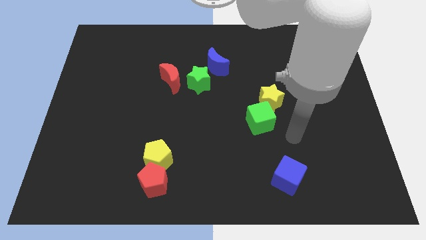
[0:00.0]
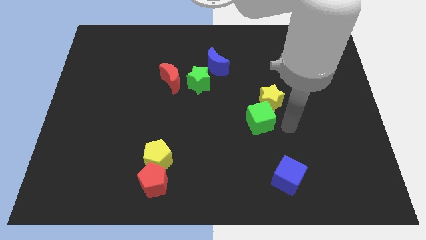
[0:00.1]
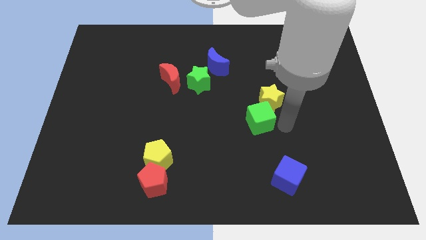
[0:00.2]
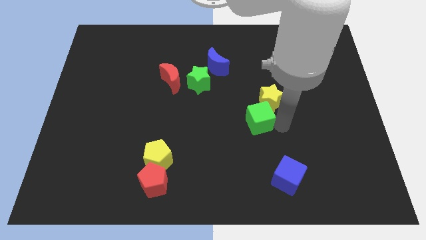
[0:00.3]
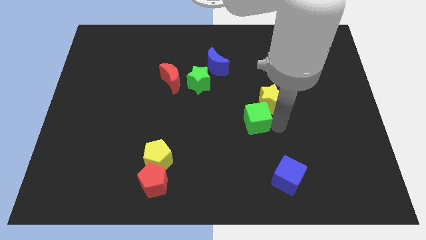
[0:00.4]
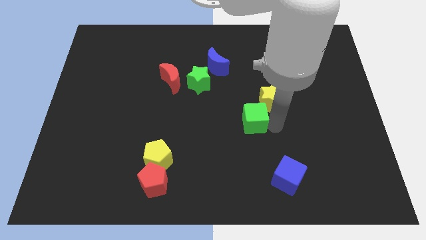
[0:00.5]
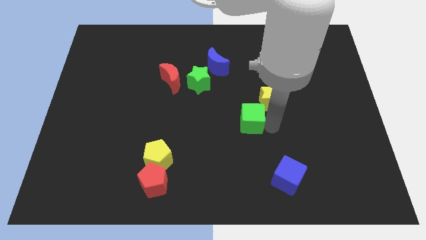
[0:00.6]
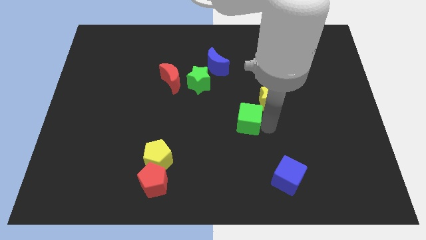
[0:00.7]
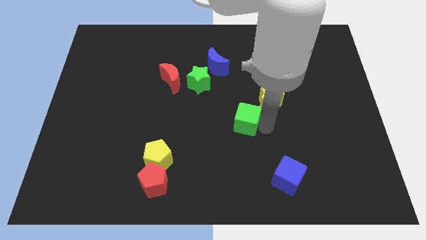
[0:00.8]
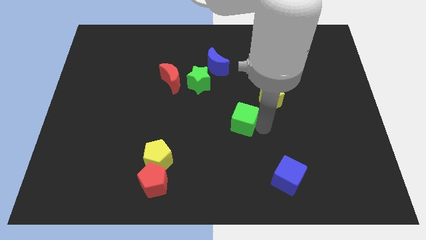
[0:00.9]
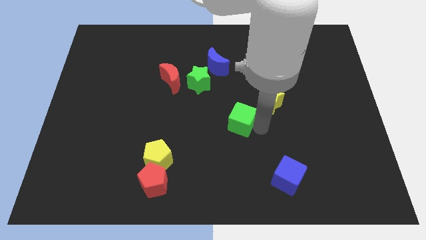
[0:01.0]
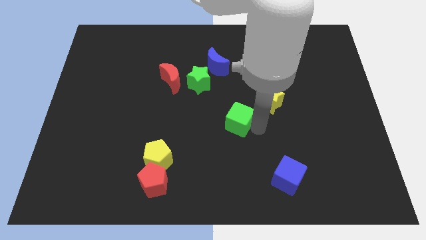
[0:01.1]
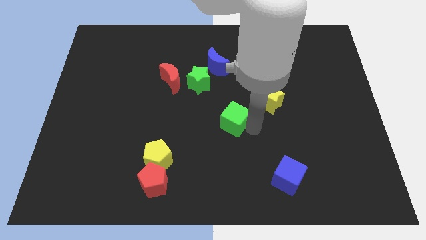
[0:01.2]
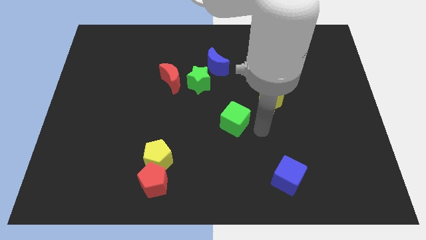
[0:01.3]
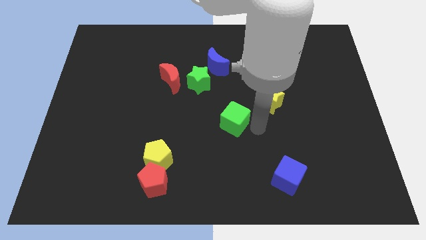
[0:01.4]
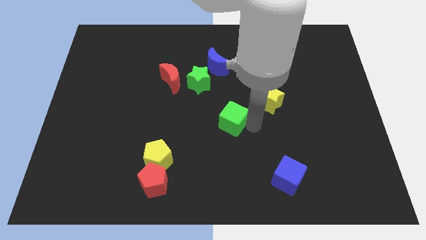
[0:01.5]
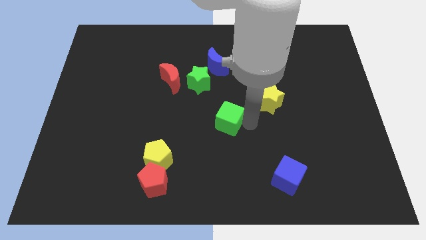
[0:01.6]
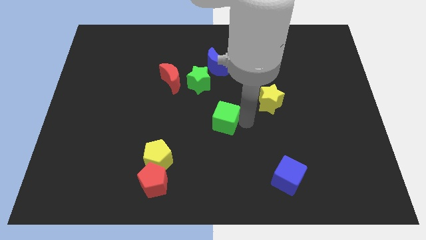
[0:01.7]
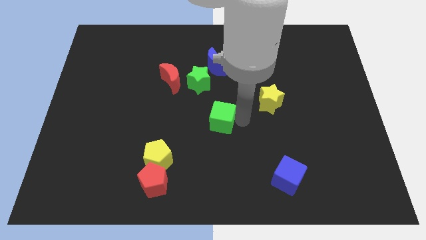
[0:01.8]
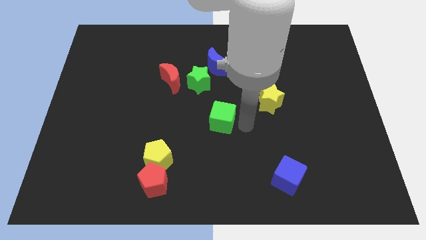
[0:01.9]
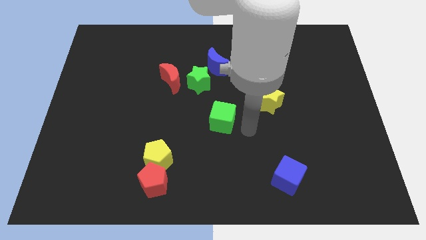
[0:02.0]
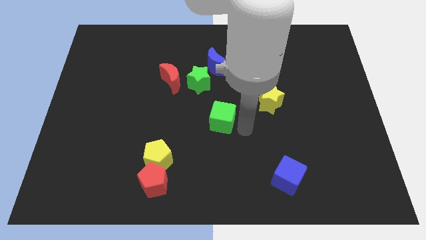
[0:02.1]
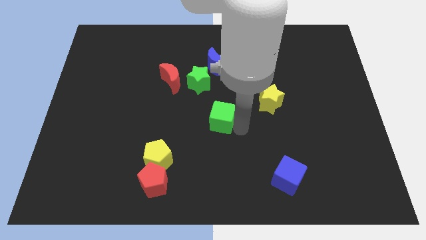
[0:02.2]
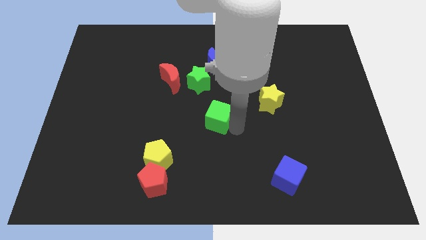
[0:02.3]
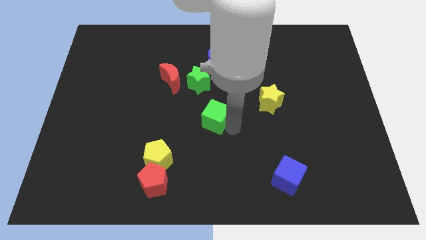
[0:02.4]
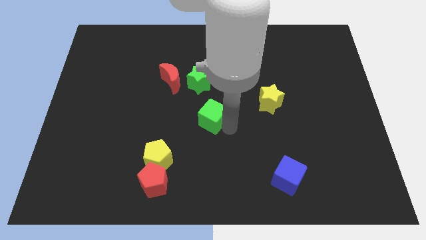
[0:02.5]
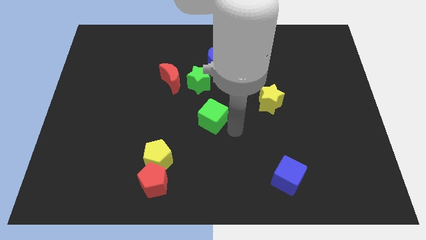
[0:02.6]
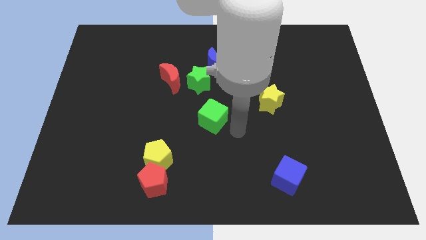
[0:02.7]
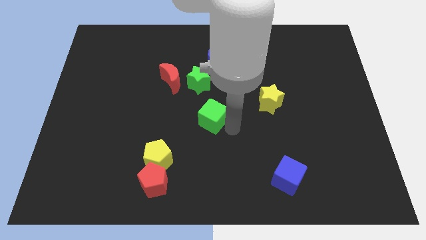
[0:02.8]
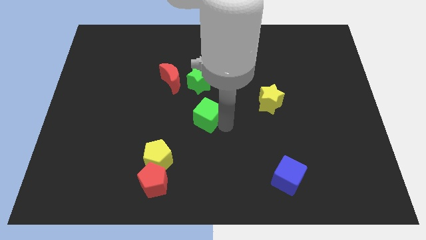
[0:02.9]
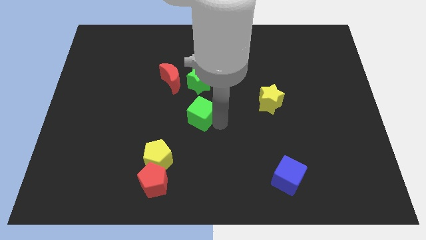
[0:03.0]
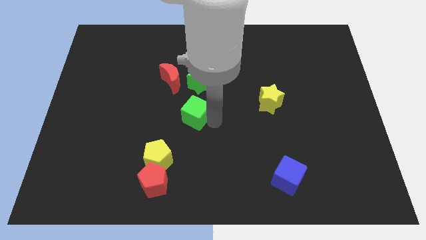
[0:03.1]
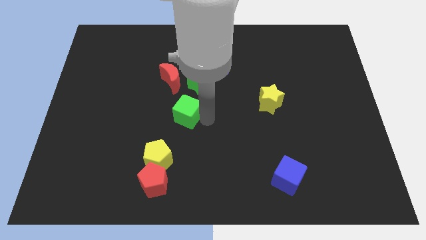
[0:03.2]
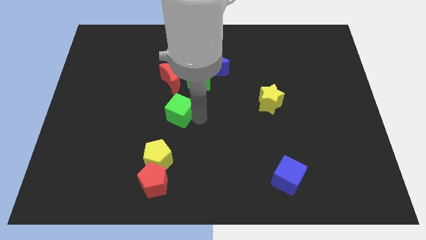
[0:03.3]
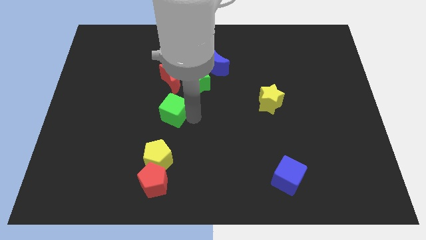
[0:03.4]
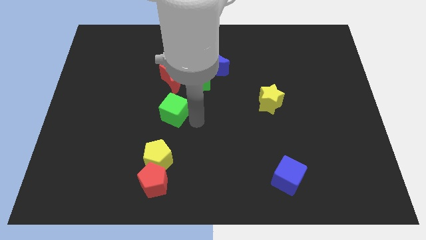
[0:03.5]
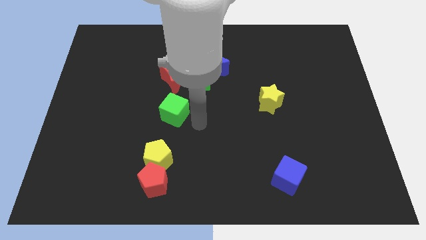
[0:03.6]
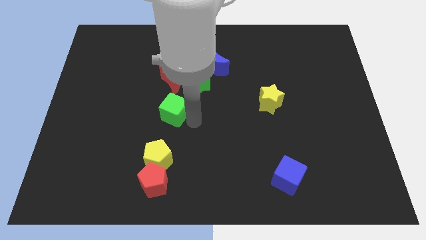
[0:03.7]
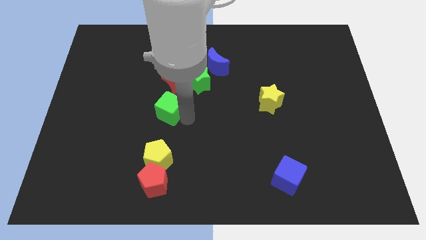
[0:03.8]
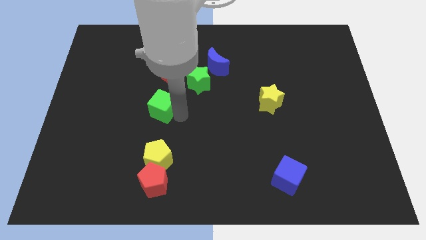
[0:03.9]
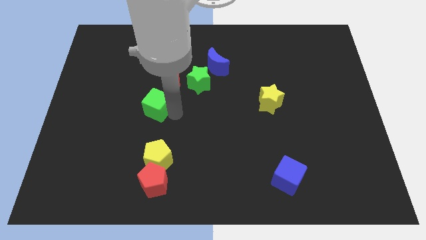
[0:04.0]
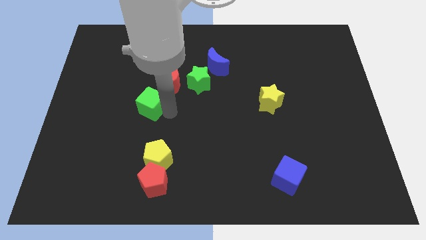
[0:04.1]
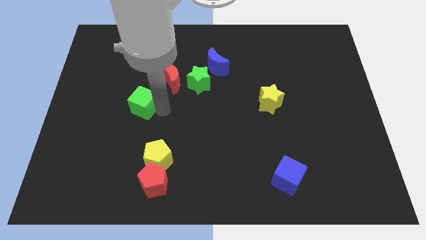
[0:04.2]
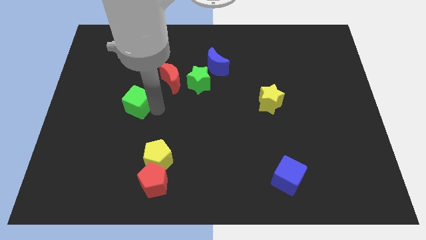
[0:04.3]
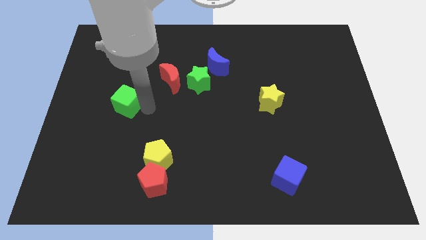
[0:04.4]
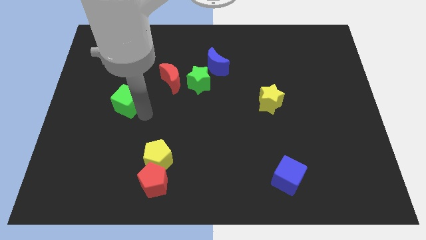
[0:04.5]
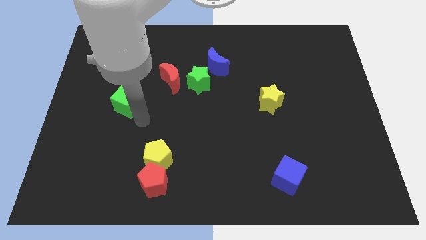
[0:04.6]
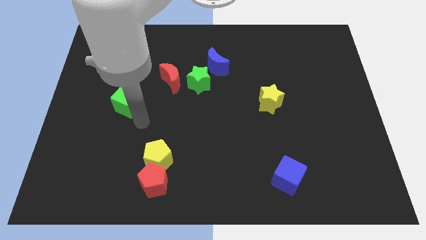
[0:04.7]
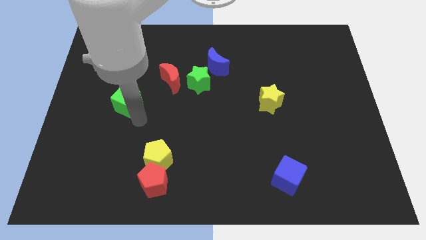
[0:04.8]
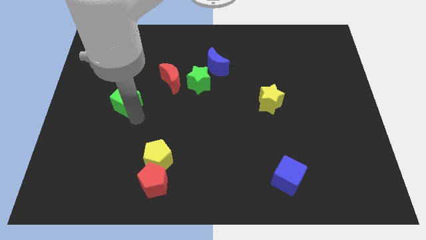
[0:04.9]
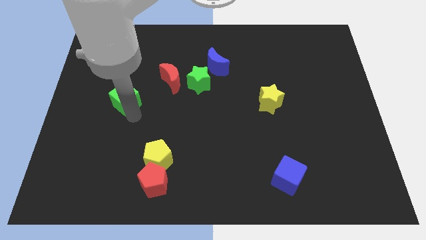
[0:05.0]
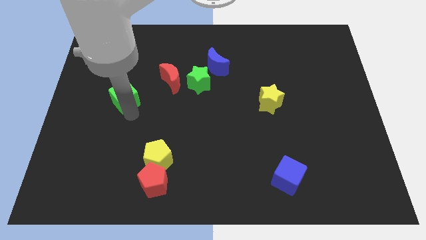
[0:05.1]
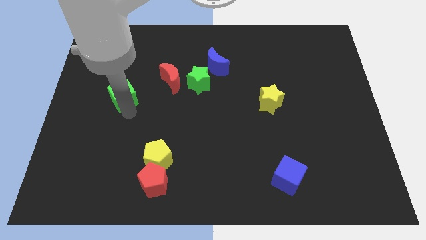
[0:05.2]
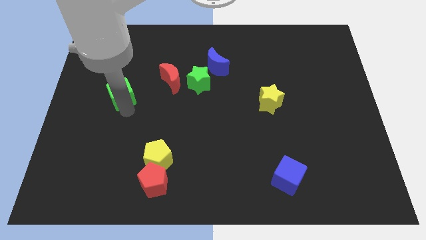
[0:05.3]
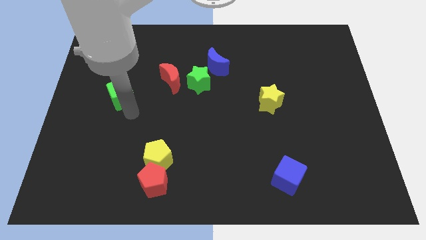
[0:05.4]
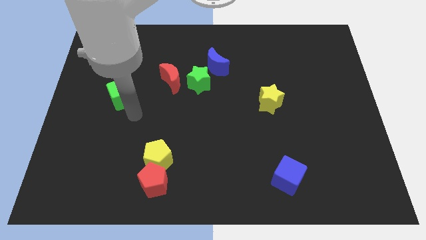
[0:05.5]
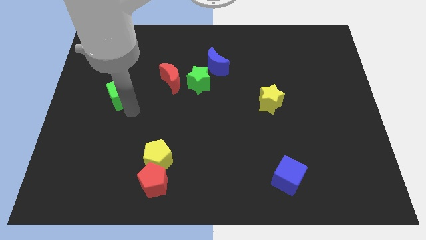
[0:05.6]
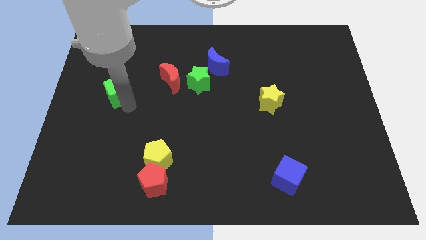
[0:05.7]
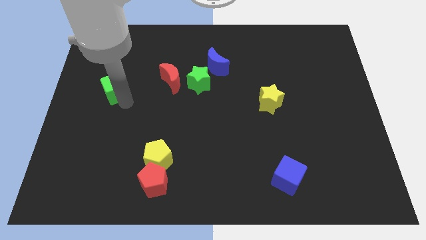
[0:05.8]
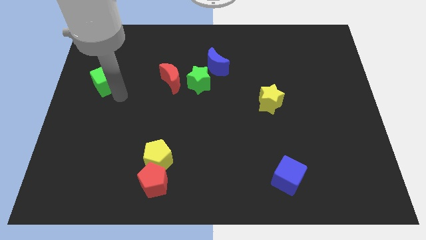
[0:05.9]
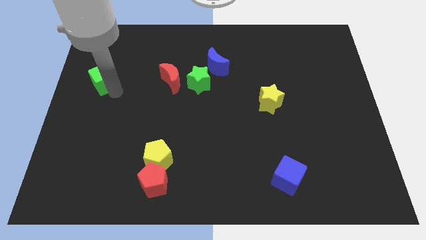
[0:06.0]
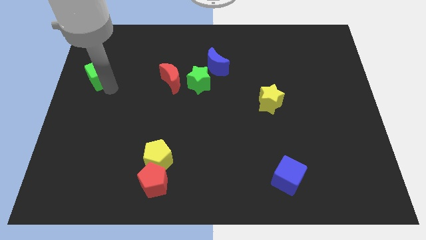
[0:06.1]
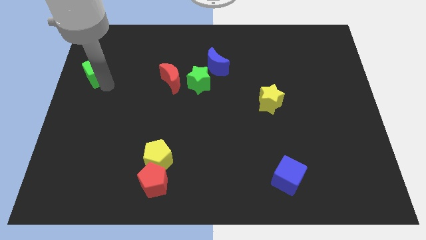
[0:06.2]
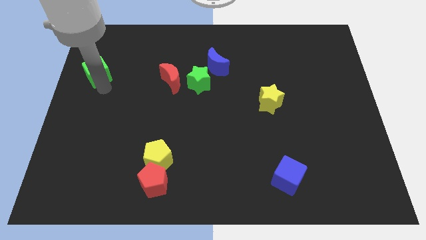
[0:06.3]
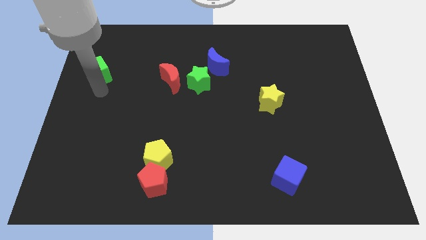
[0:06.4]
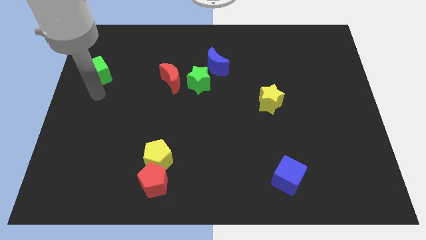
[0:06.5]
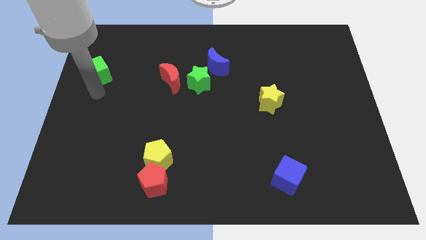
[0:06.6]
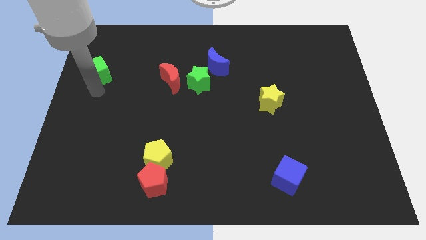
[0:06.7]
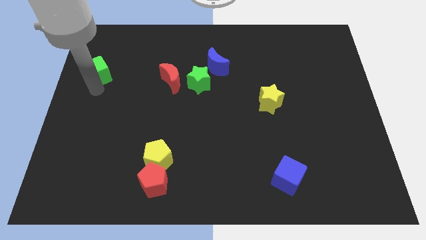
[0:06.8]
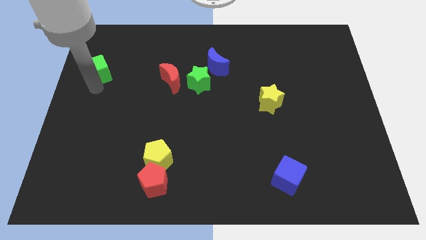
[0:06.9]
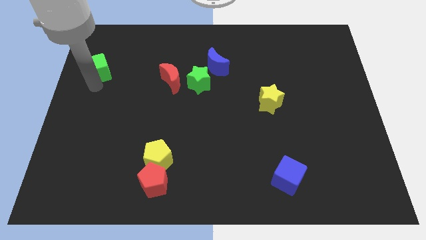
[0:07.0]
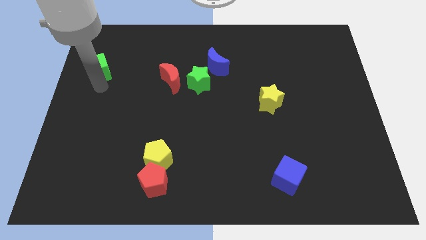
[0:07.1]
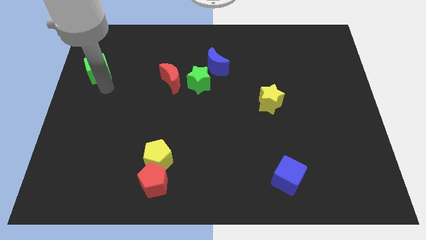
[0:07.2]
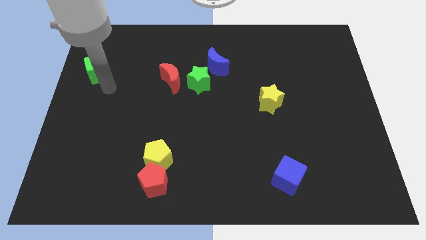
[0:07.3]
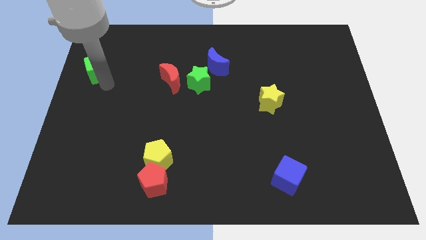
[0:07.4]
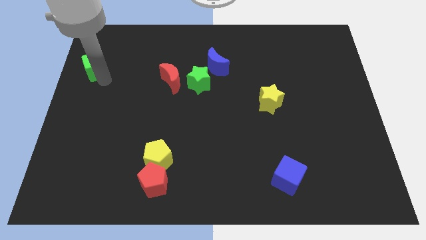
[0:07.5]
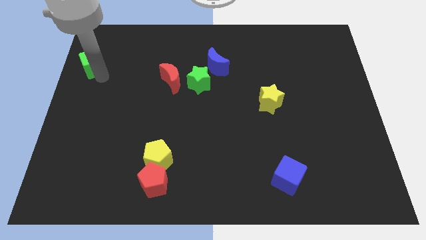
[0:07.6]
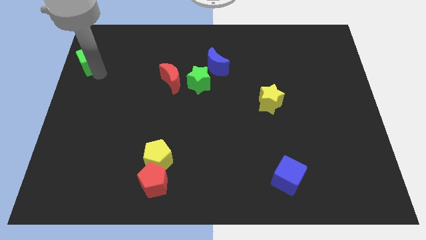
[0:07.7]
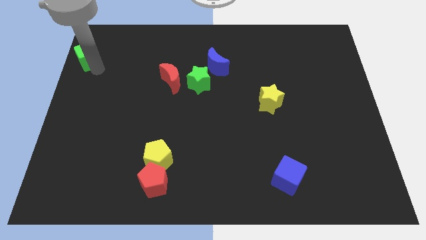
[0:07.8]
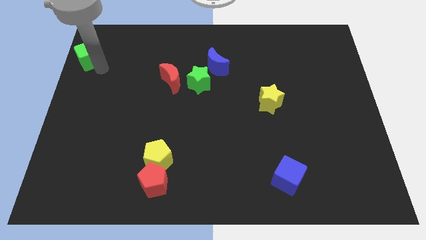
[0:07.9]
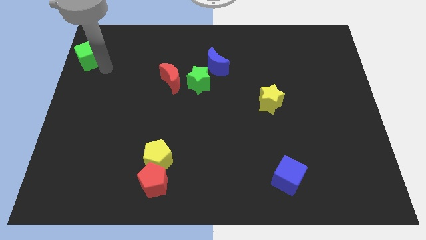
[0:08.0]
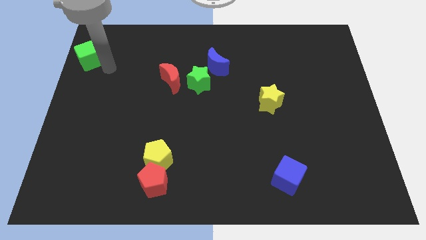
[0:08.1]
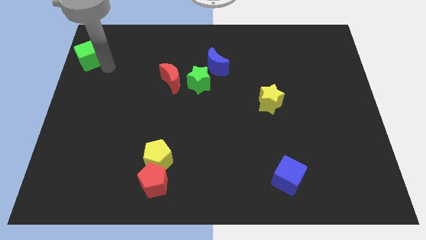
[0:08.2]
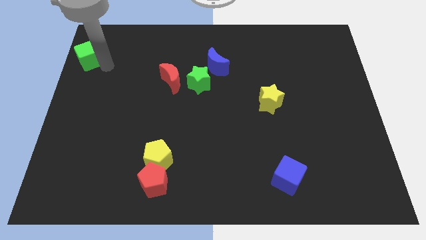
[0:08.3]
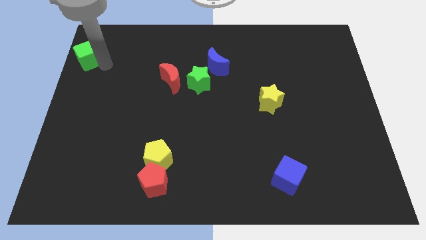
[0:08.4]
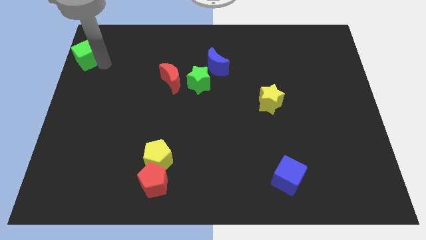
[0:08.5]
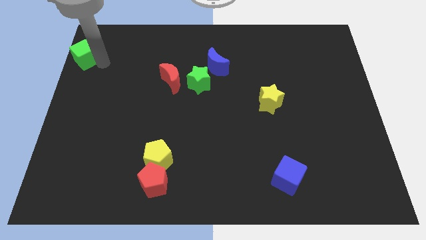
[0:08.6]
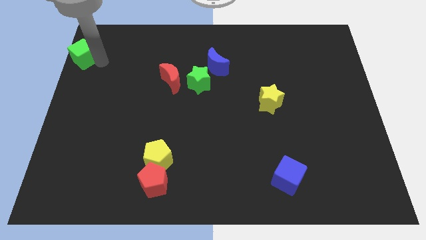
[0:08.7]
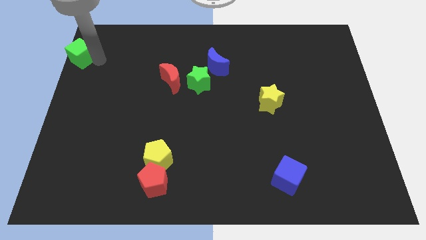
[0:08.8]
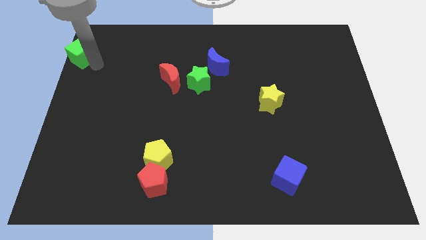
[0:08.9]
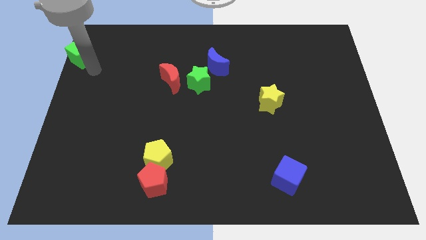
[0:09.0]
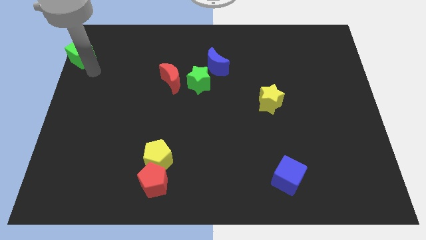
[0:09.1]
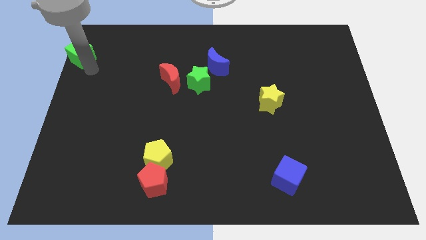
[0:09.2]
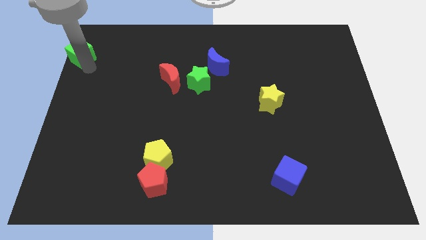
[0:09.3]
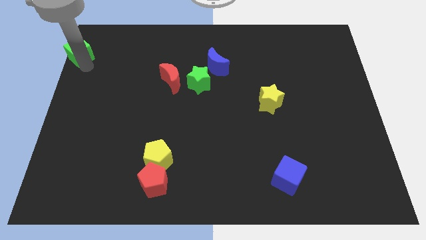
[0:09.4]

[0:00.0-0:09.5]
move the green cube to the top left of the board
